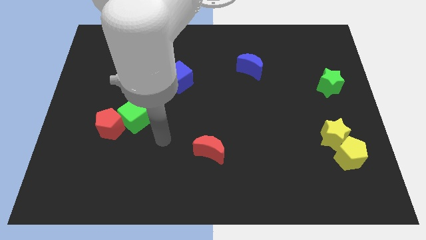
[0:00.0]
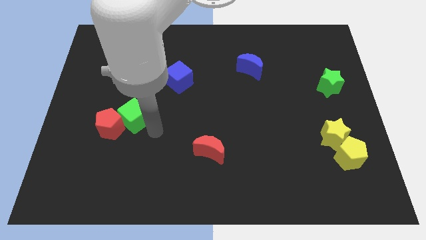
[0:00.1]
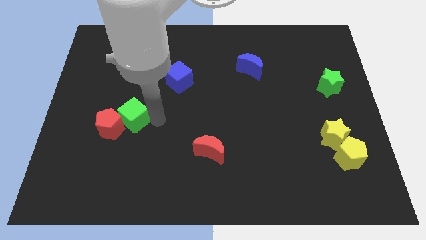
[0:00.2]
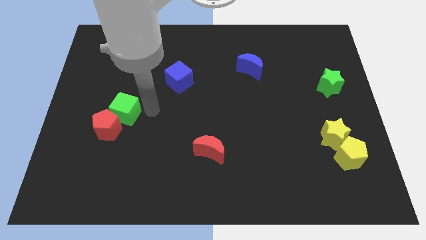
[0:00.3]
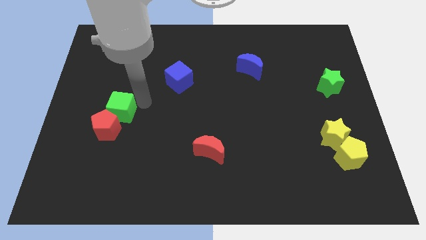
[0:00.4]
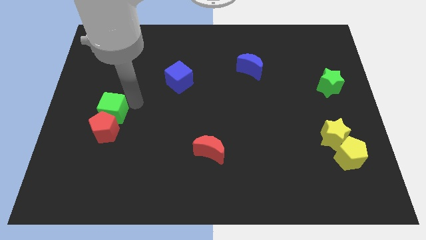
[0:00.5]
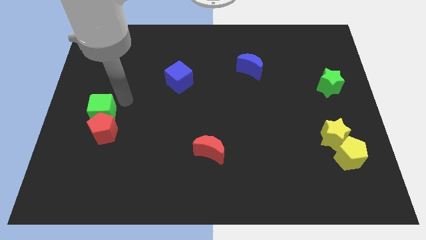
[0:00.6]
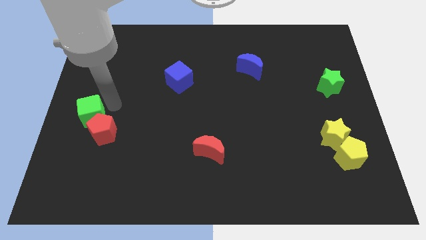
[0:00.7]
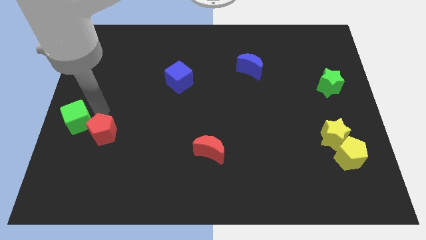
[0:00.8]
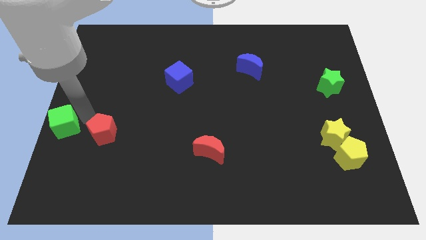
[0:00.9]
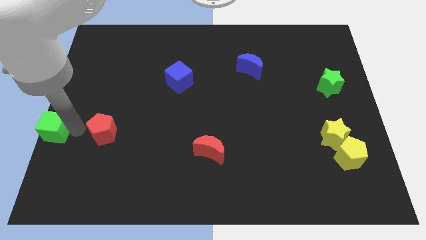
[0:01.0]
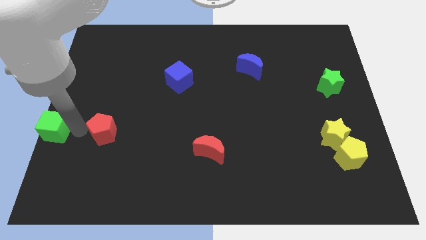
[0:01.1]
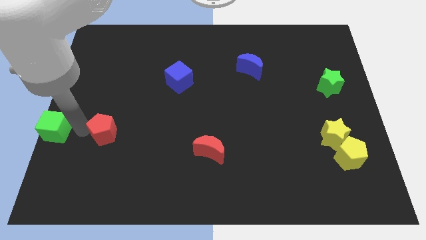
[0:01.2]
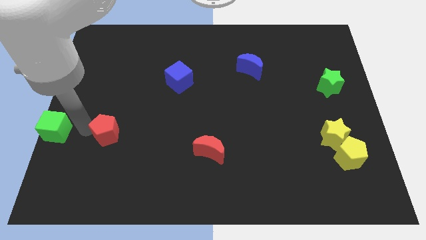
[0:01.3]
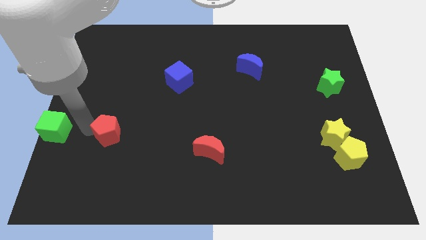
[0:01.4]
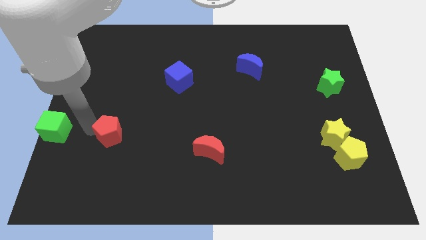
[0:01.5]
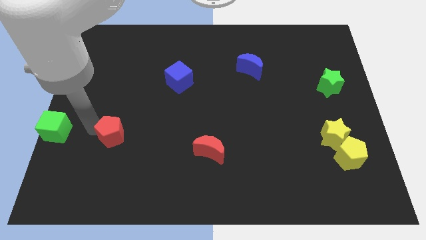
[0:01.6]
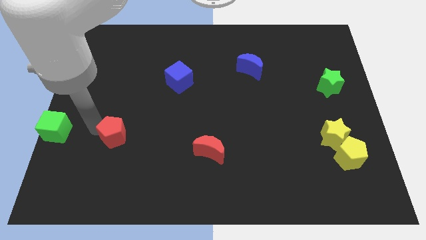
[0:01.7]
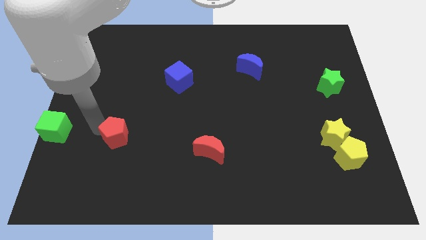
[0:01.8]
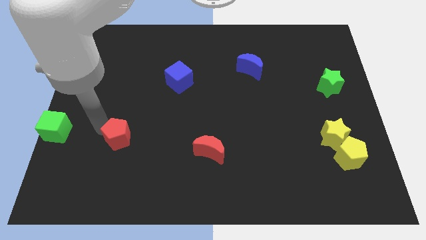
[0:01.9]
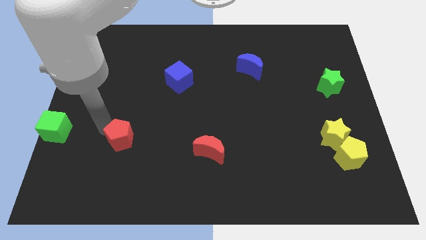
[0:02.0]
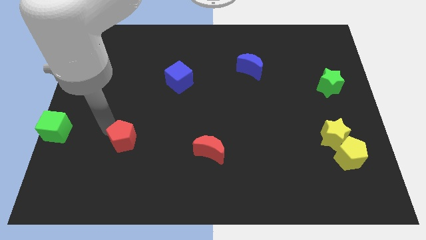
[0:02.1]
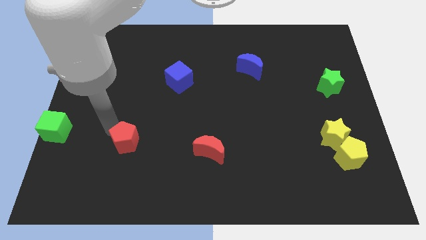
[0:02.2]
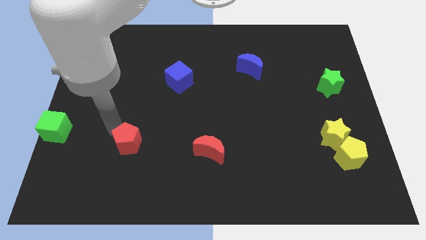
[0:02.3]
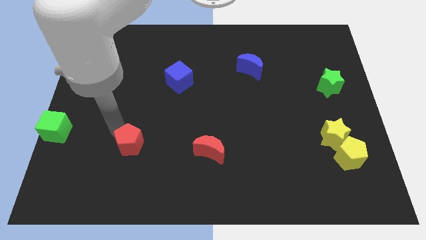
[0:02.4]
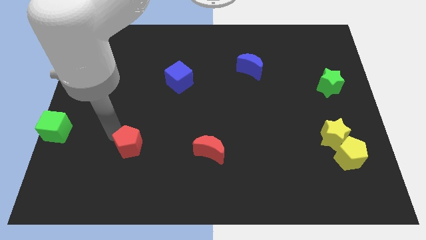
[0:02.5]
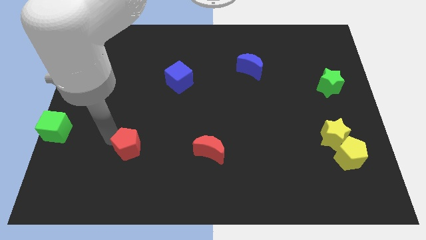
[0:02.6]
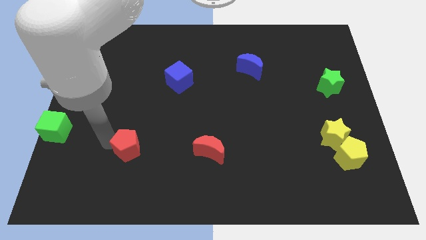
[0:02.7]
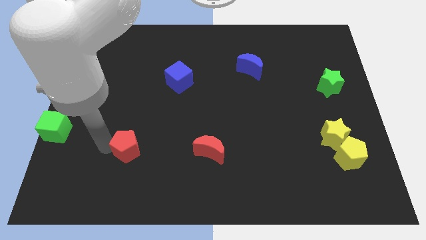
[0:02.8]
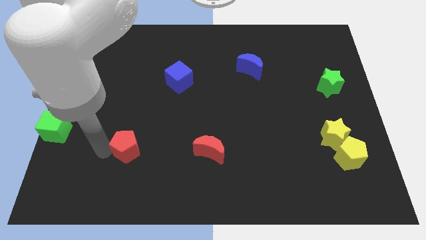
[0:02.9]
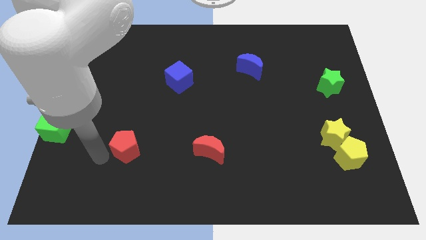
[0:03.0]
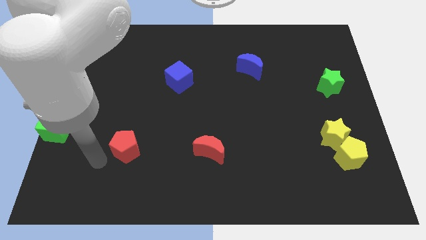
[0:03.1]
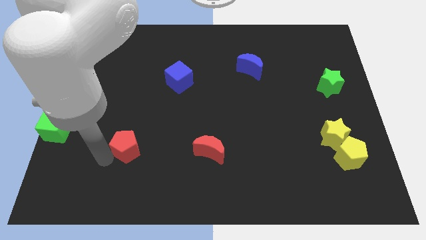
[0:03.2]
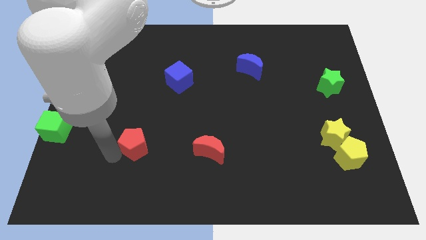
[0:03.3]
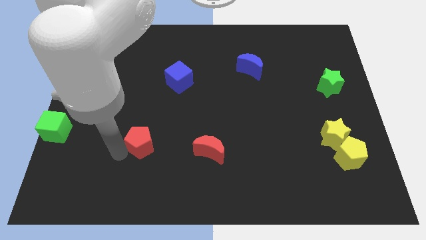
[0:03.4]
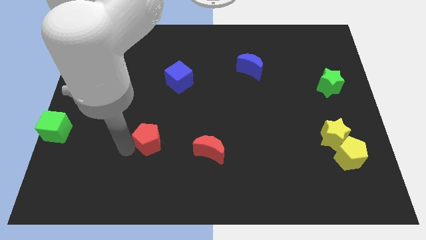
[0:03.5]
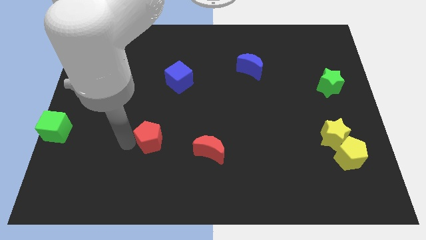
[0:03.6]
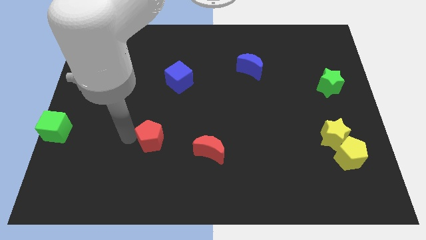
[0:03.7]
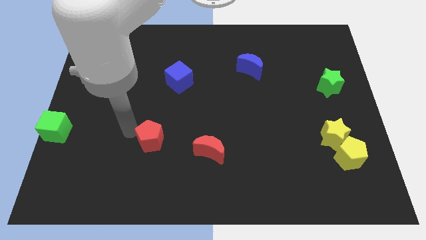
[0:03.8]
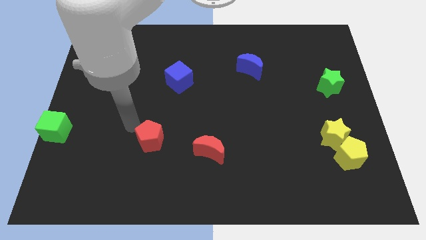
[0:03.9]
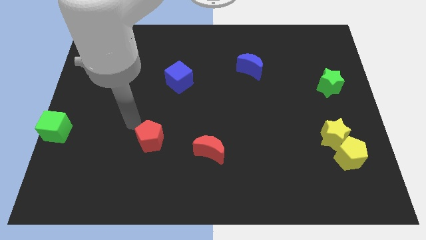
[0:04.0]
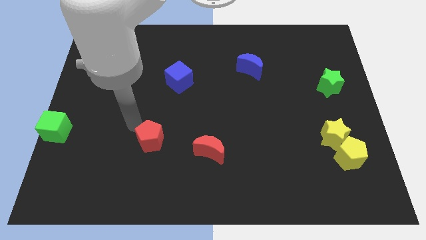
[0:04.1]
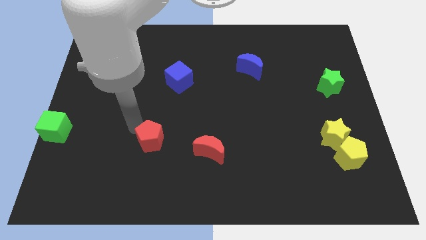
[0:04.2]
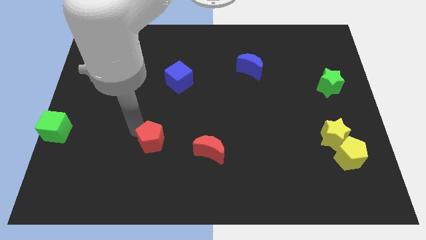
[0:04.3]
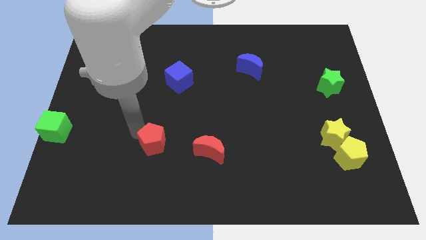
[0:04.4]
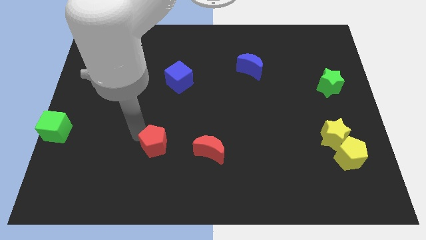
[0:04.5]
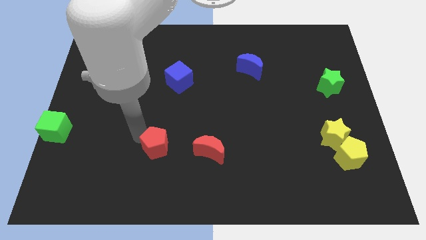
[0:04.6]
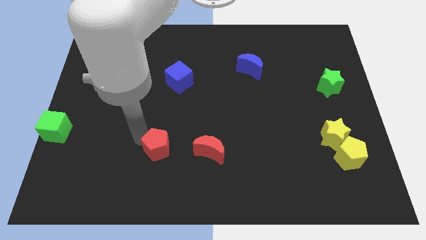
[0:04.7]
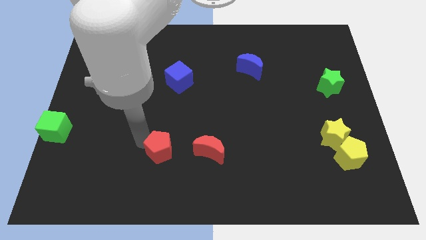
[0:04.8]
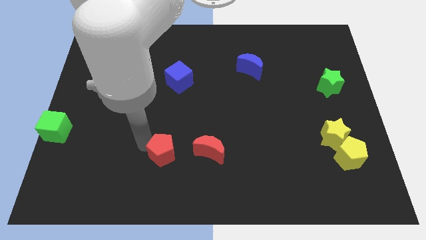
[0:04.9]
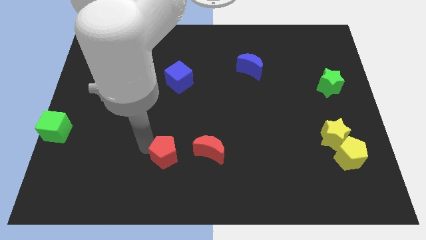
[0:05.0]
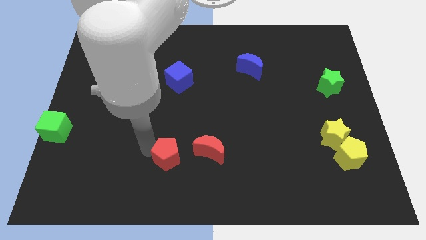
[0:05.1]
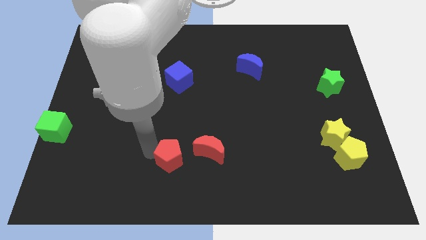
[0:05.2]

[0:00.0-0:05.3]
push the red pentagon diagonally down and to the left of the red moon

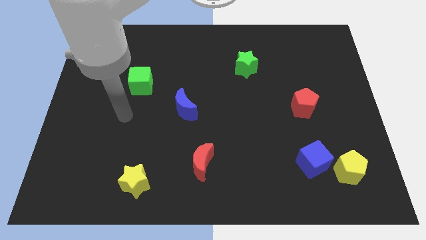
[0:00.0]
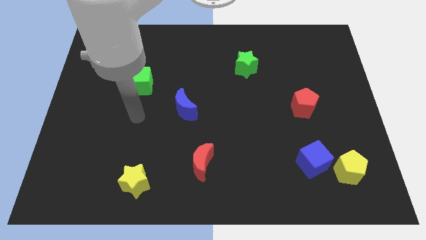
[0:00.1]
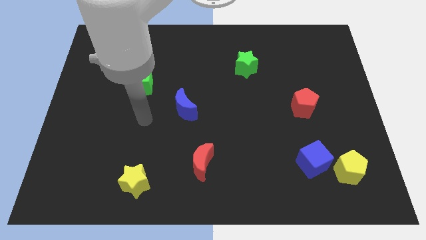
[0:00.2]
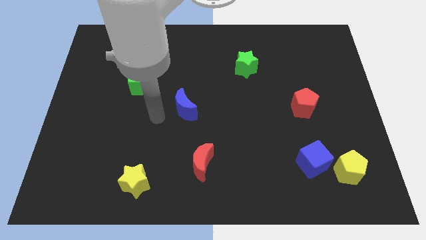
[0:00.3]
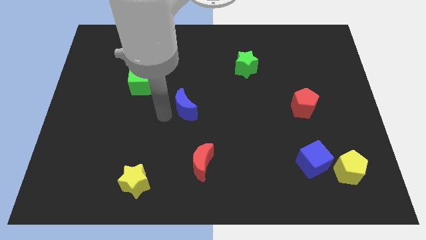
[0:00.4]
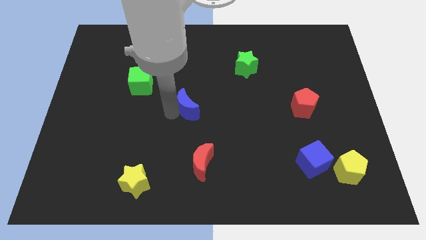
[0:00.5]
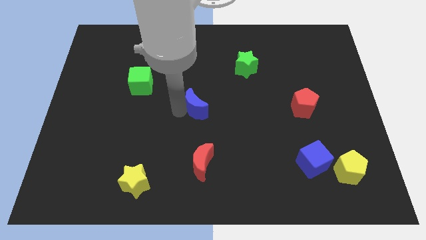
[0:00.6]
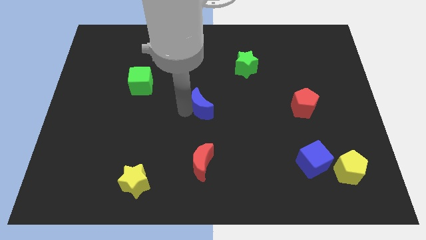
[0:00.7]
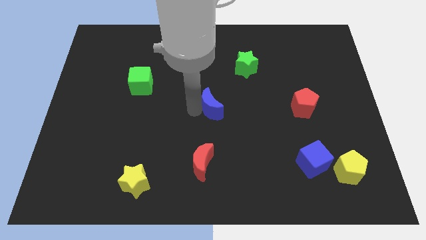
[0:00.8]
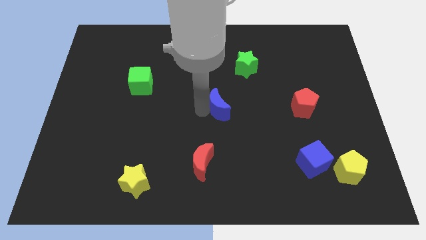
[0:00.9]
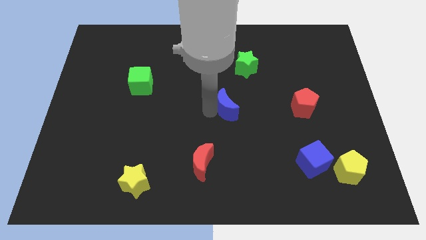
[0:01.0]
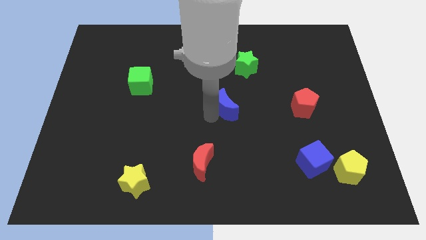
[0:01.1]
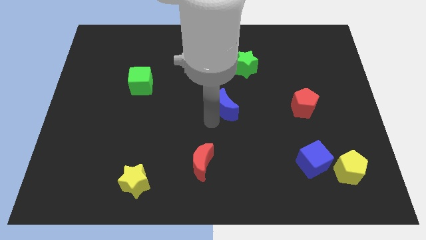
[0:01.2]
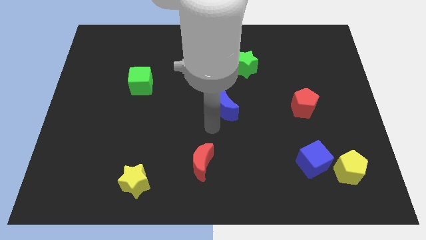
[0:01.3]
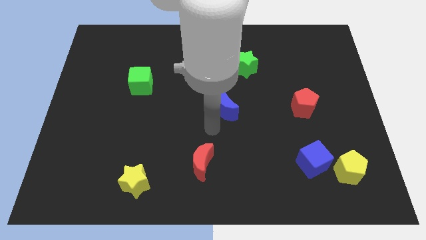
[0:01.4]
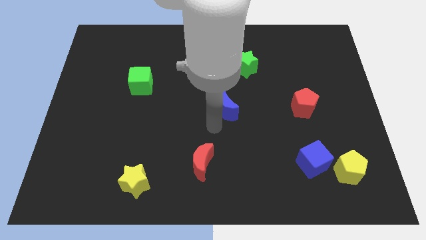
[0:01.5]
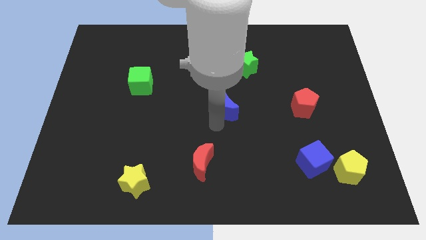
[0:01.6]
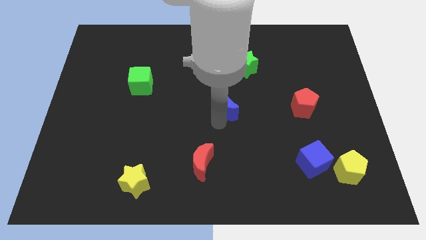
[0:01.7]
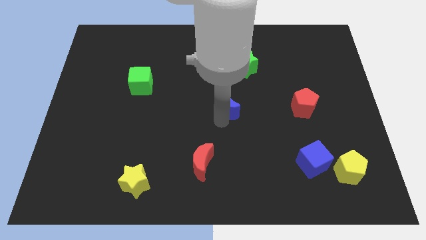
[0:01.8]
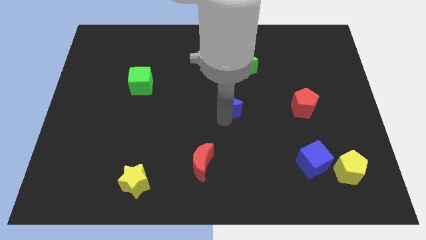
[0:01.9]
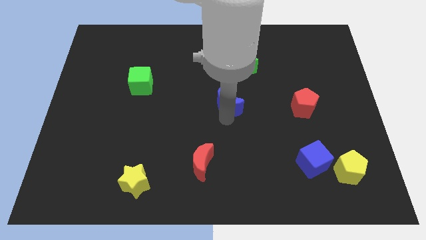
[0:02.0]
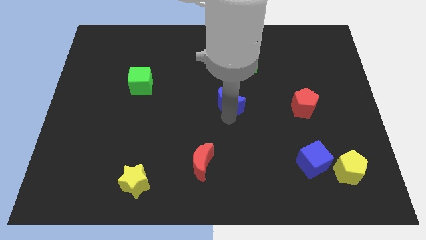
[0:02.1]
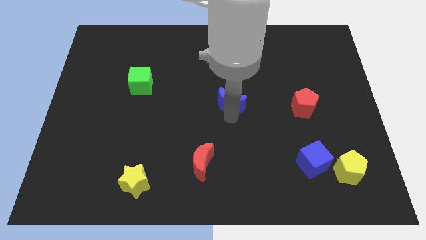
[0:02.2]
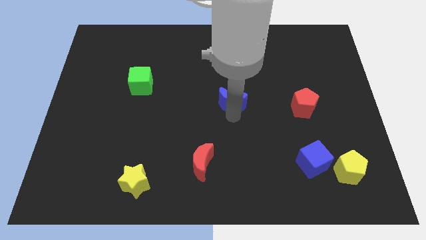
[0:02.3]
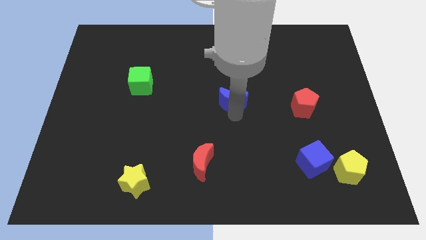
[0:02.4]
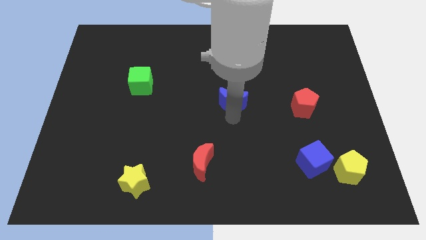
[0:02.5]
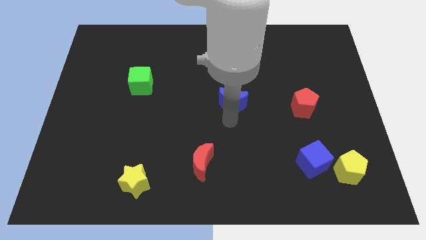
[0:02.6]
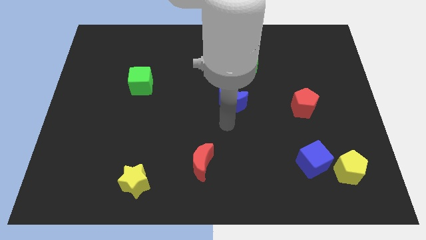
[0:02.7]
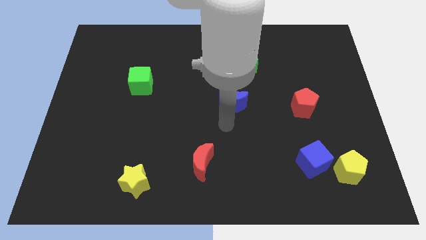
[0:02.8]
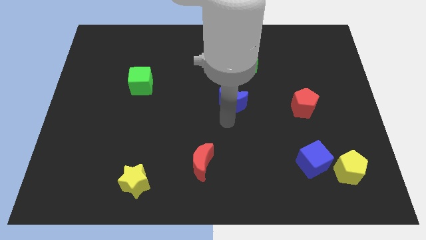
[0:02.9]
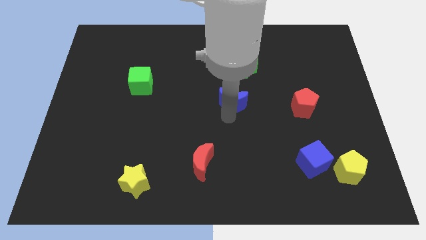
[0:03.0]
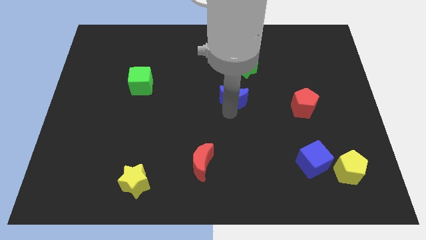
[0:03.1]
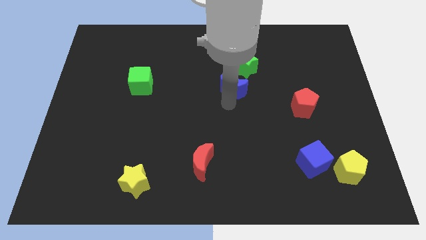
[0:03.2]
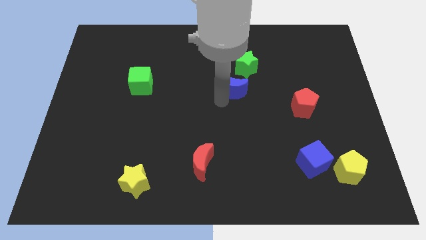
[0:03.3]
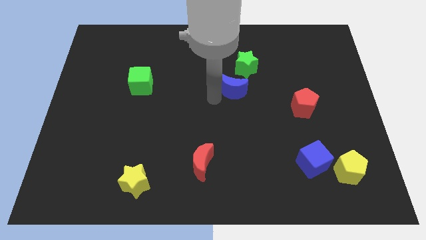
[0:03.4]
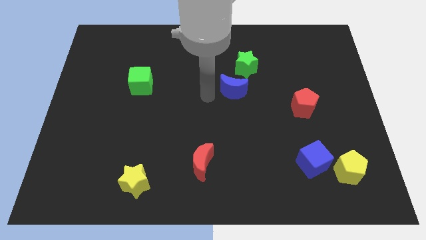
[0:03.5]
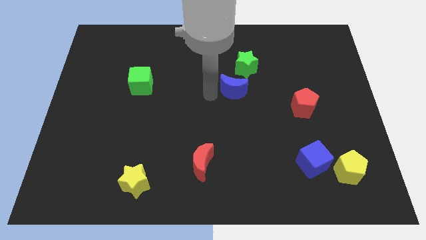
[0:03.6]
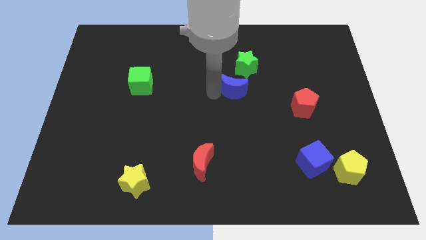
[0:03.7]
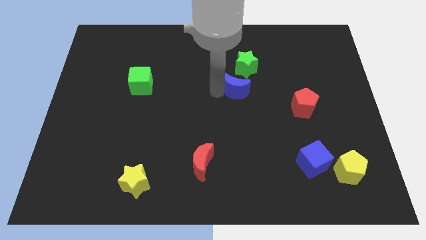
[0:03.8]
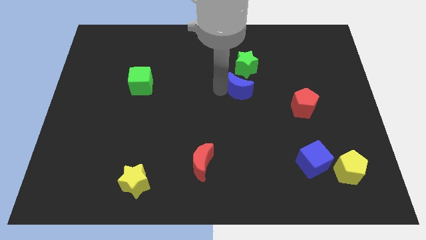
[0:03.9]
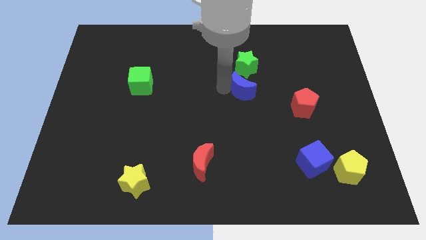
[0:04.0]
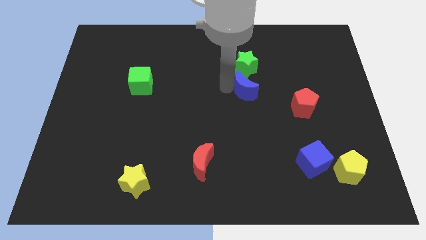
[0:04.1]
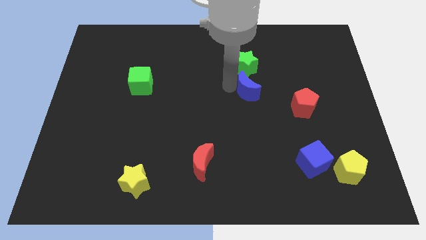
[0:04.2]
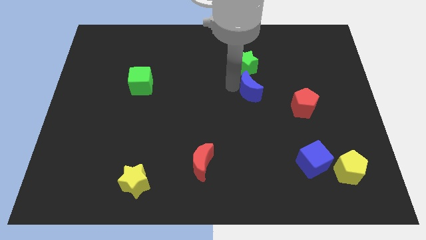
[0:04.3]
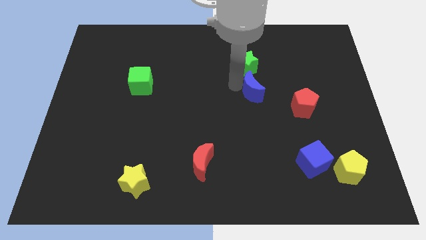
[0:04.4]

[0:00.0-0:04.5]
move the blue moon diagonally down and to the right of the green star
